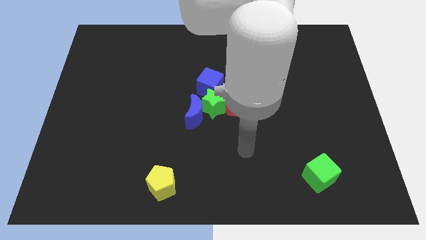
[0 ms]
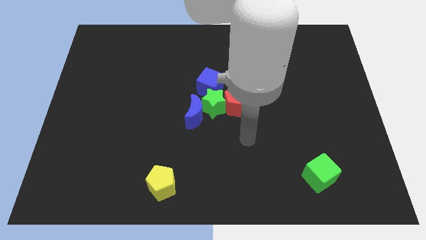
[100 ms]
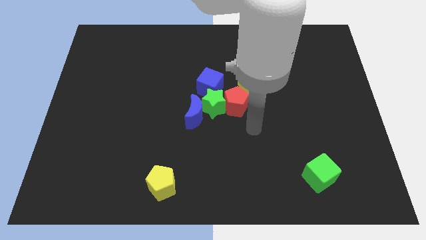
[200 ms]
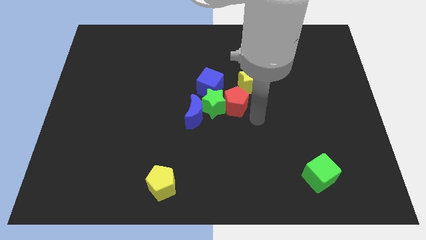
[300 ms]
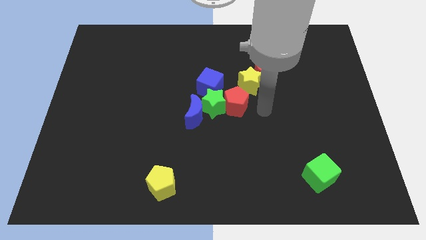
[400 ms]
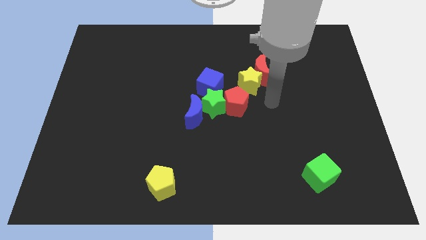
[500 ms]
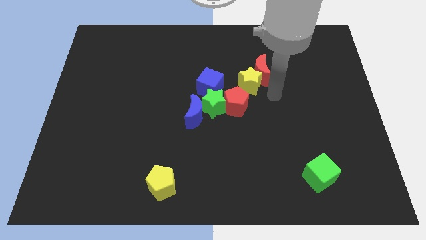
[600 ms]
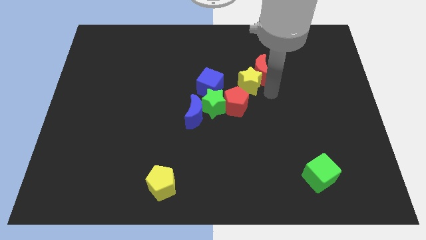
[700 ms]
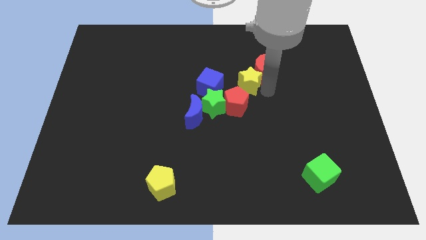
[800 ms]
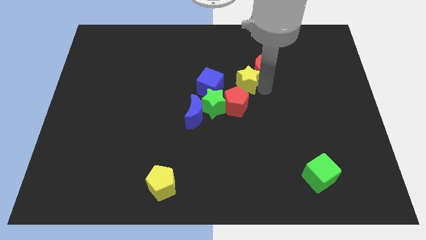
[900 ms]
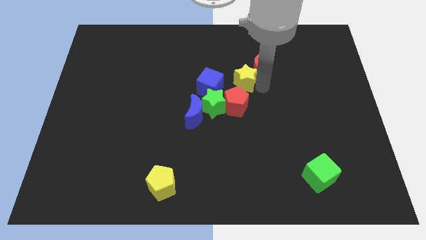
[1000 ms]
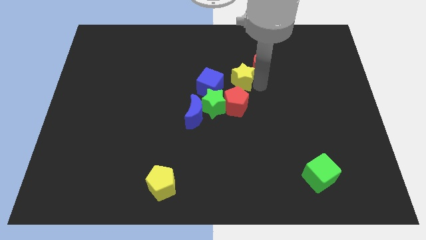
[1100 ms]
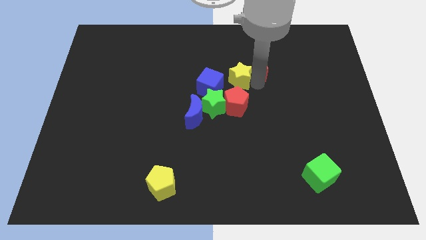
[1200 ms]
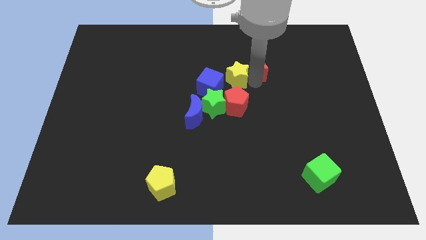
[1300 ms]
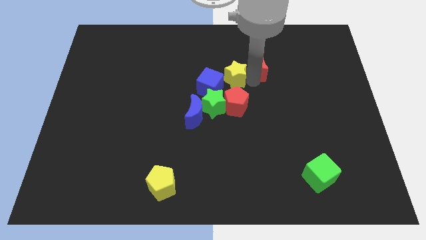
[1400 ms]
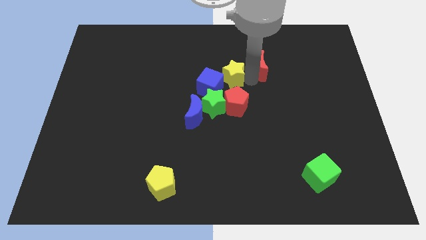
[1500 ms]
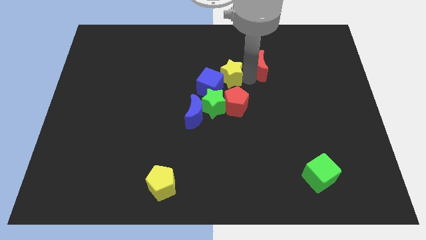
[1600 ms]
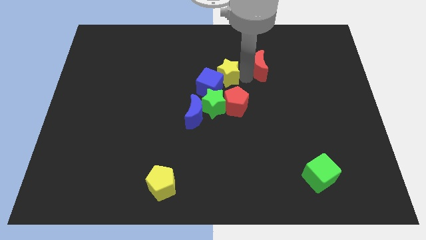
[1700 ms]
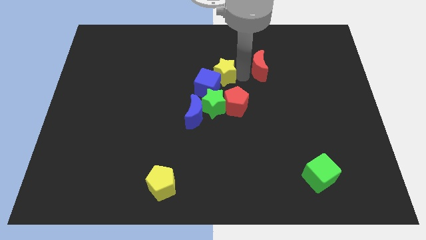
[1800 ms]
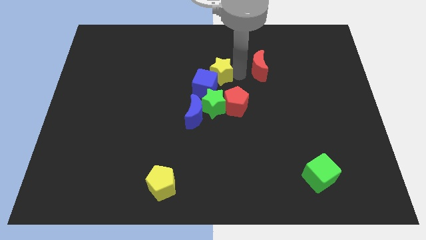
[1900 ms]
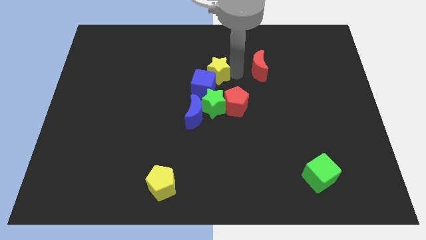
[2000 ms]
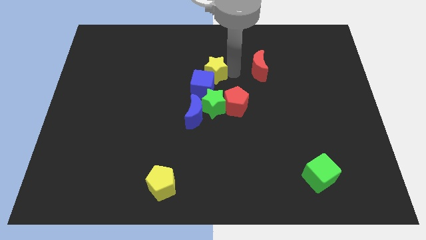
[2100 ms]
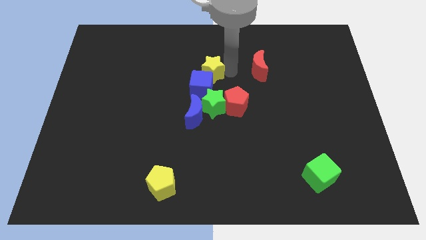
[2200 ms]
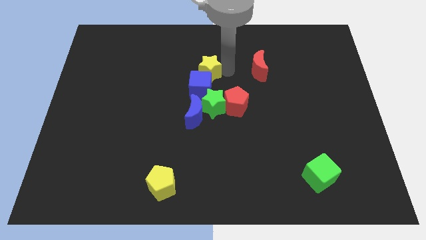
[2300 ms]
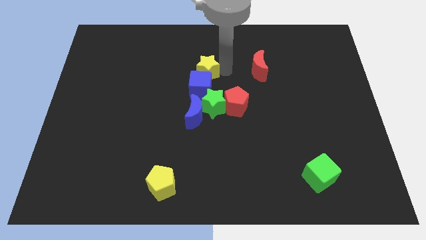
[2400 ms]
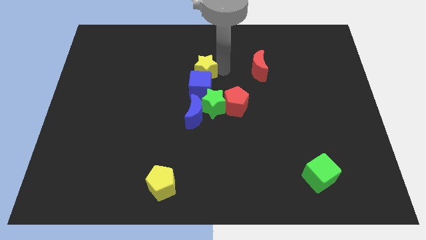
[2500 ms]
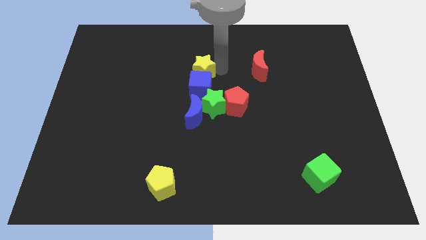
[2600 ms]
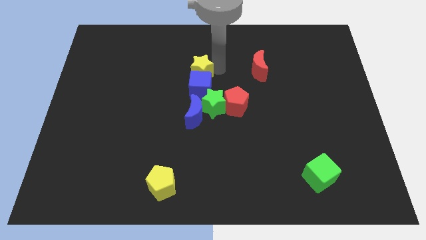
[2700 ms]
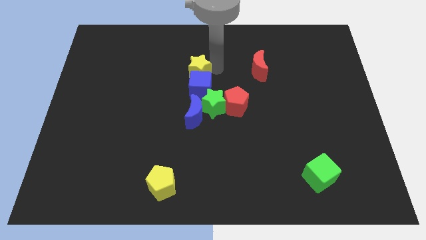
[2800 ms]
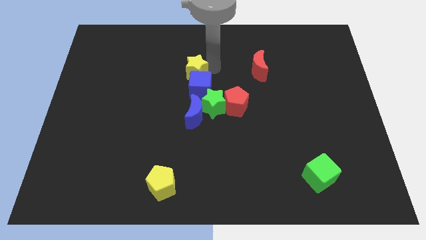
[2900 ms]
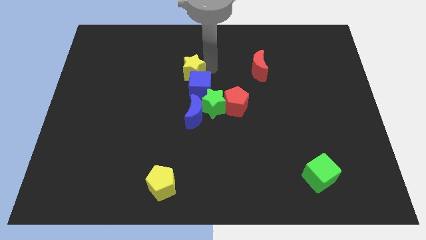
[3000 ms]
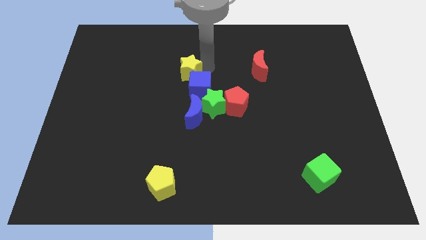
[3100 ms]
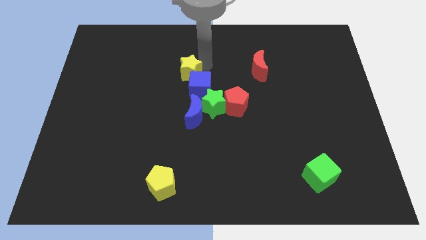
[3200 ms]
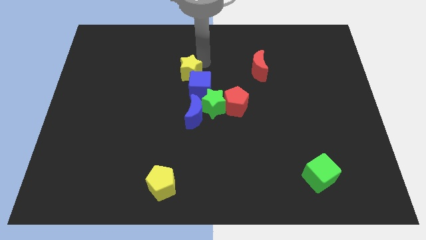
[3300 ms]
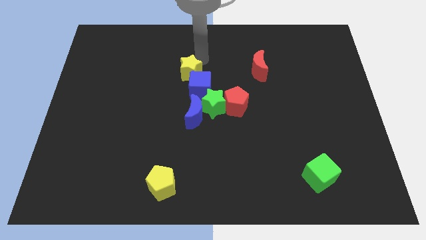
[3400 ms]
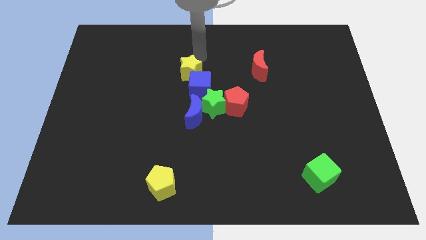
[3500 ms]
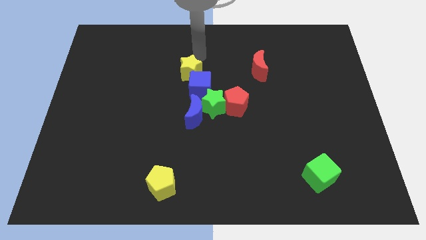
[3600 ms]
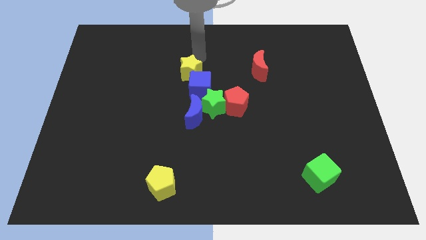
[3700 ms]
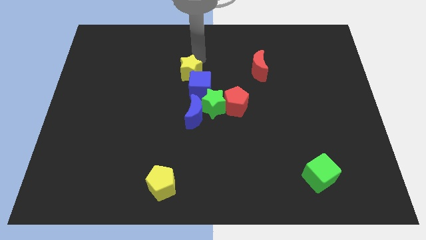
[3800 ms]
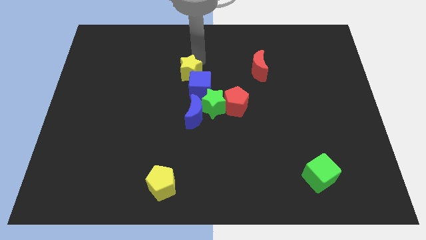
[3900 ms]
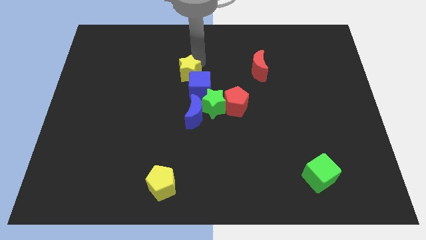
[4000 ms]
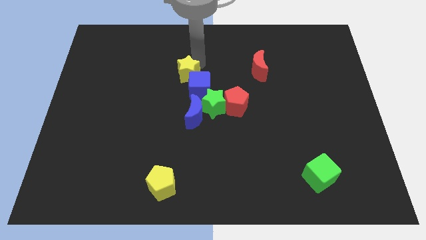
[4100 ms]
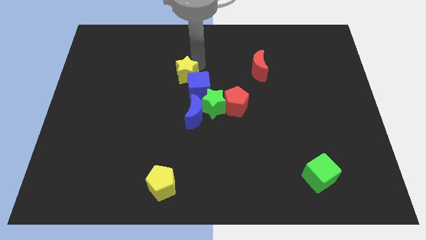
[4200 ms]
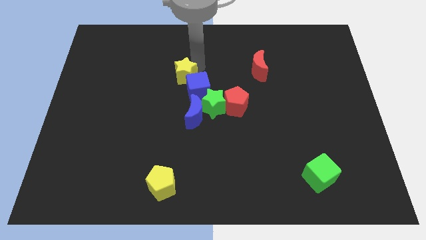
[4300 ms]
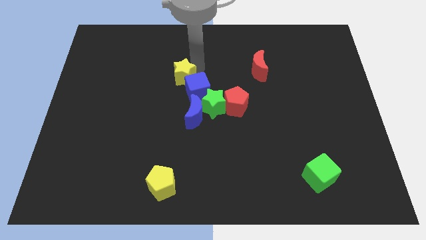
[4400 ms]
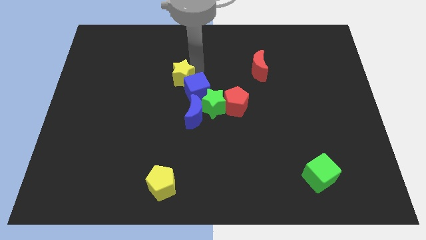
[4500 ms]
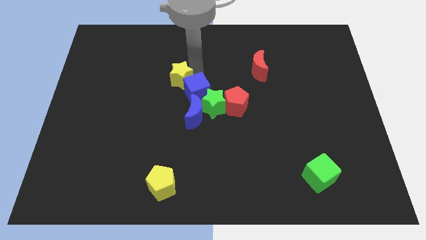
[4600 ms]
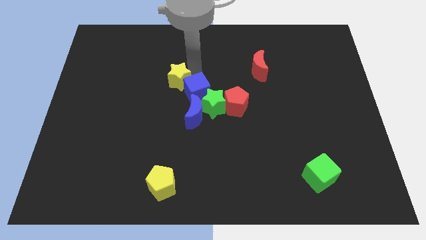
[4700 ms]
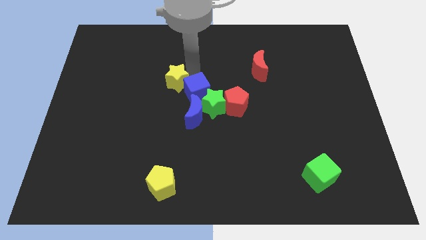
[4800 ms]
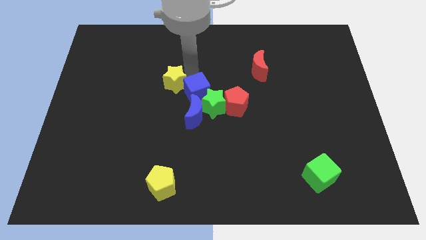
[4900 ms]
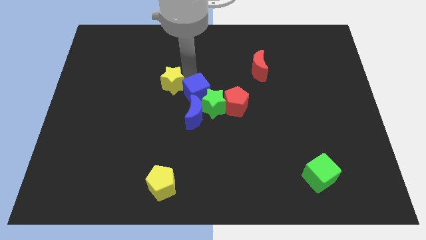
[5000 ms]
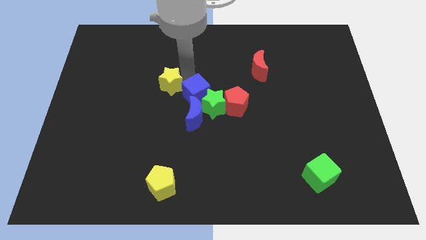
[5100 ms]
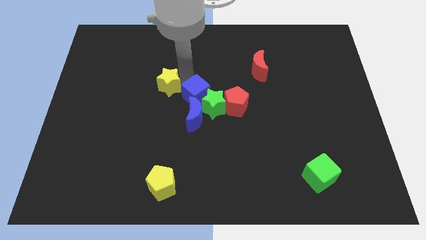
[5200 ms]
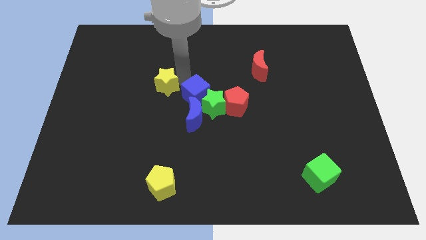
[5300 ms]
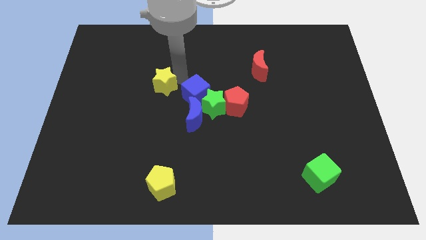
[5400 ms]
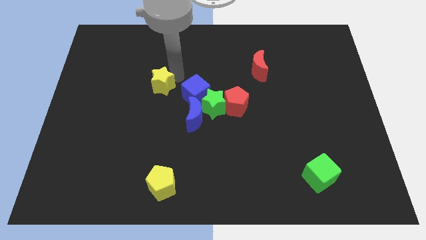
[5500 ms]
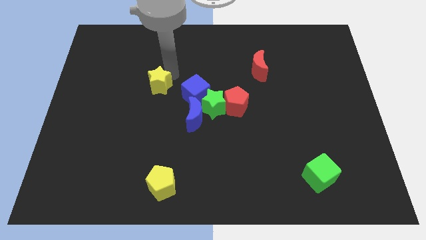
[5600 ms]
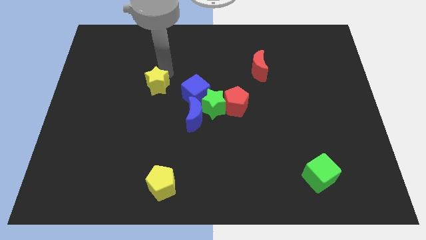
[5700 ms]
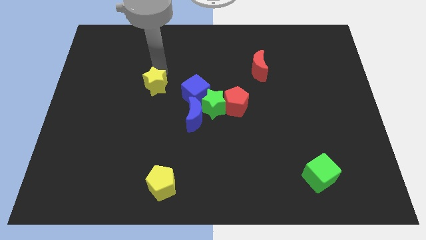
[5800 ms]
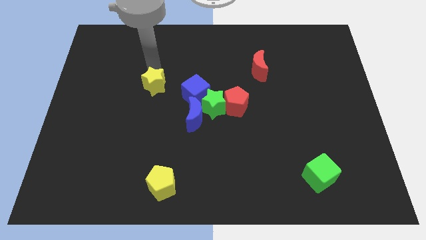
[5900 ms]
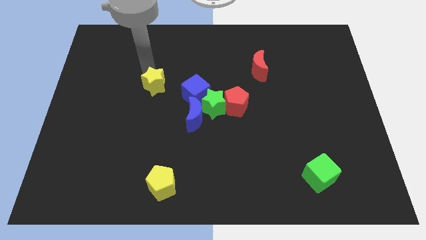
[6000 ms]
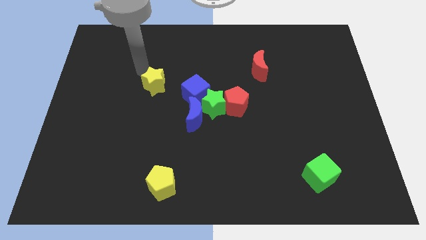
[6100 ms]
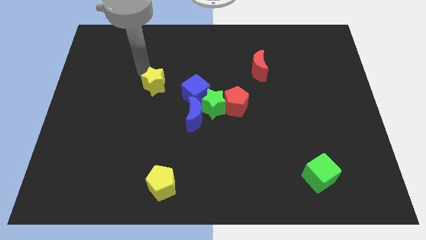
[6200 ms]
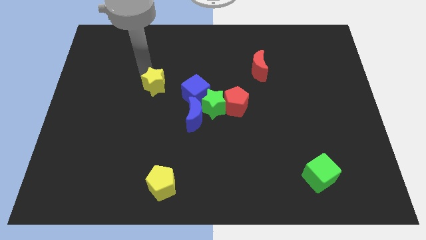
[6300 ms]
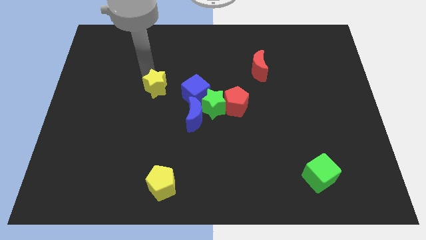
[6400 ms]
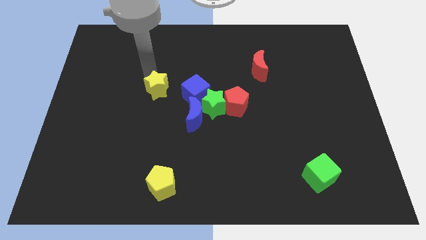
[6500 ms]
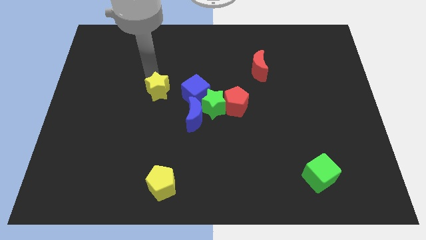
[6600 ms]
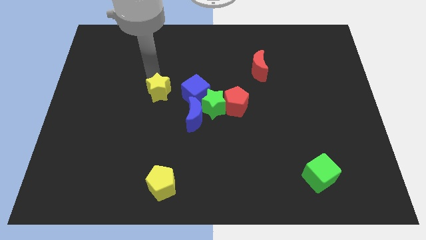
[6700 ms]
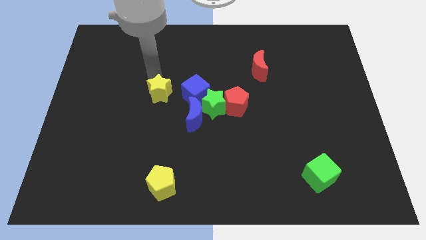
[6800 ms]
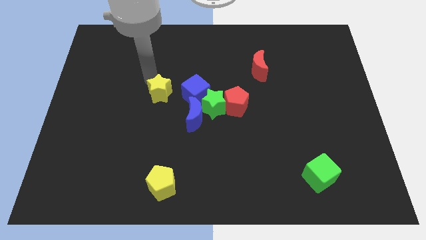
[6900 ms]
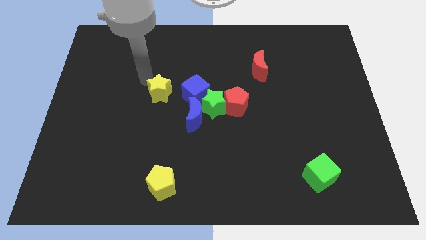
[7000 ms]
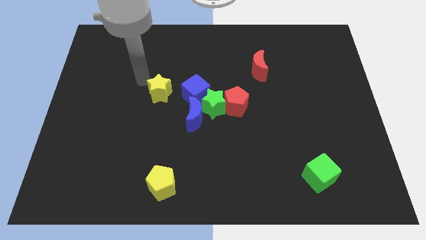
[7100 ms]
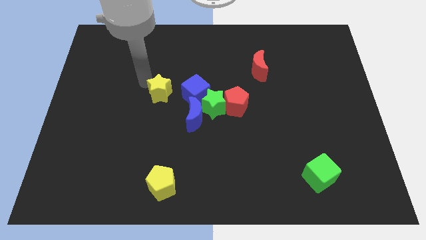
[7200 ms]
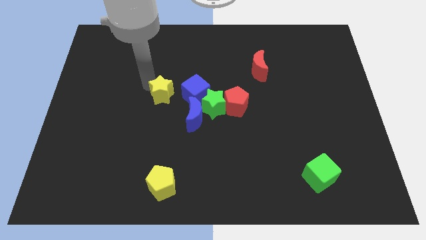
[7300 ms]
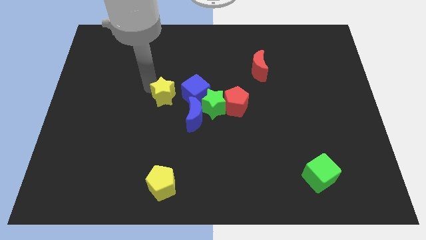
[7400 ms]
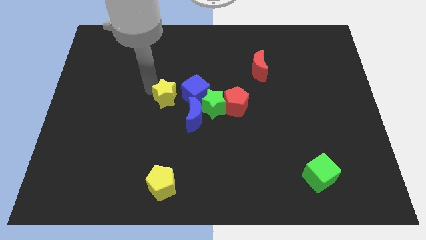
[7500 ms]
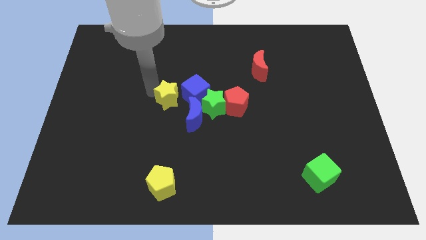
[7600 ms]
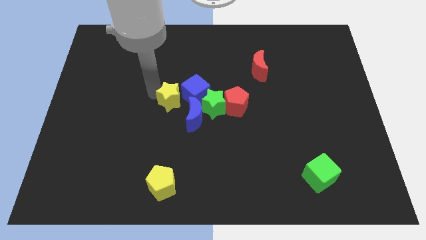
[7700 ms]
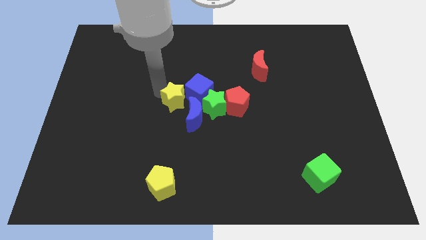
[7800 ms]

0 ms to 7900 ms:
put the yellow star just left of the blue moon
